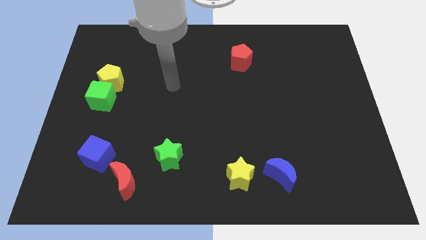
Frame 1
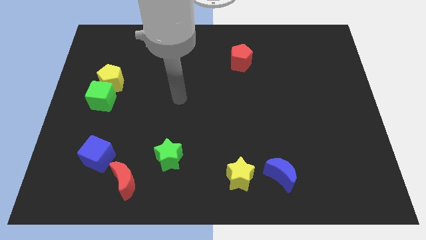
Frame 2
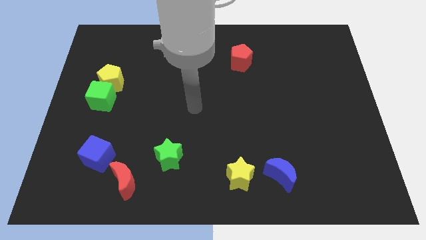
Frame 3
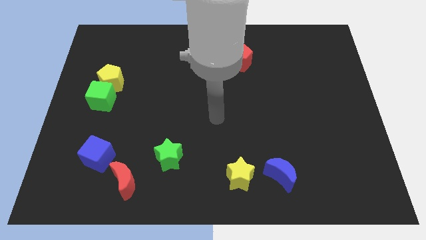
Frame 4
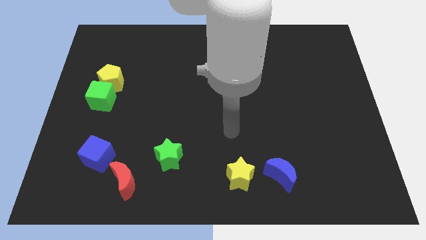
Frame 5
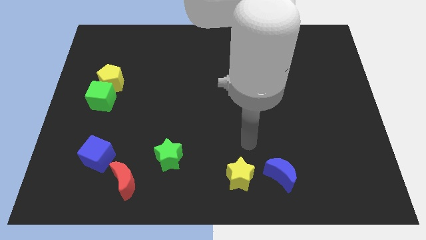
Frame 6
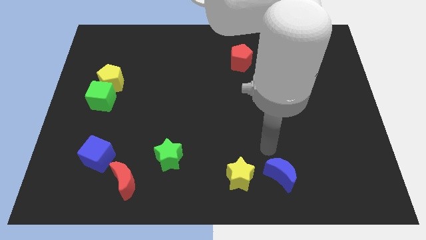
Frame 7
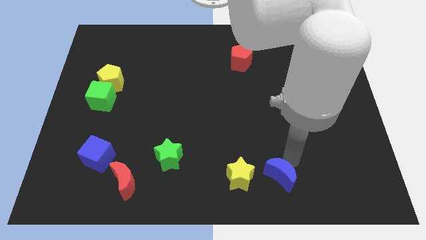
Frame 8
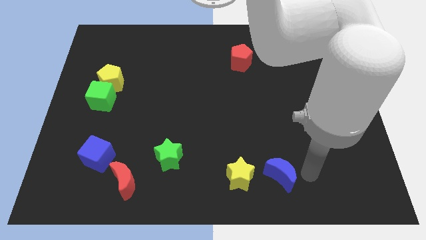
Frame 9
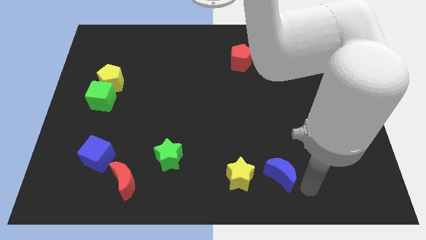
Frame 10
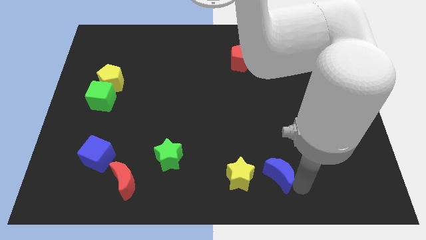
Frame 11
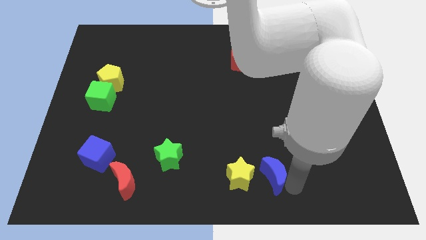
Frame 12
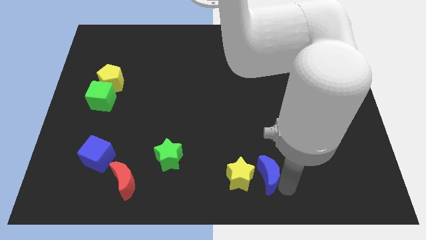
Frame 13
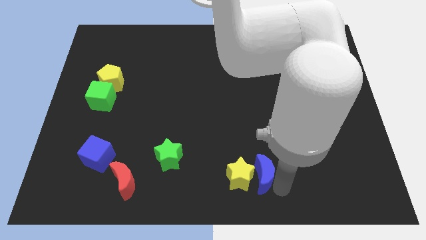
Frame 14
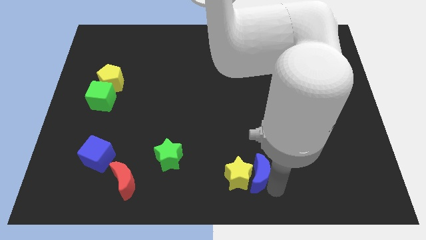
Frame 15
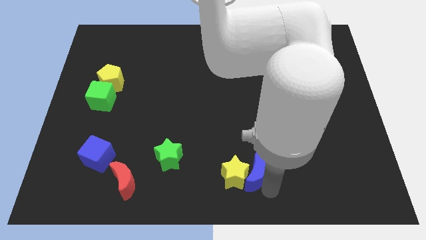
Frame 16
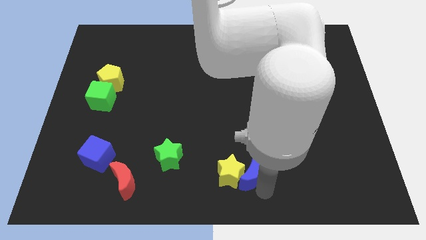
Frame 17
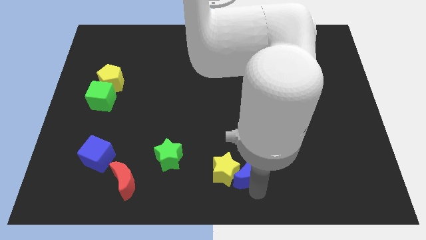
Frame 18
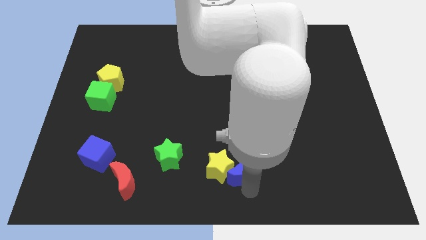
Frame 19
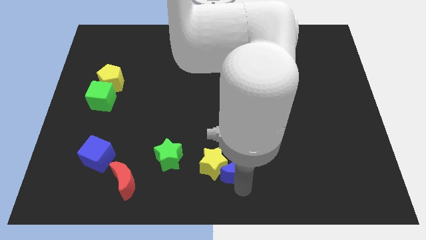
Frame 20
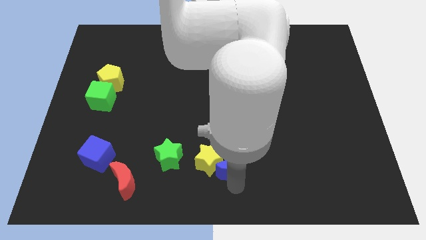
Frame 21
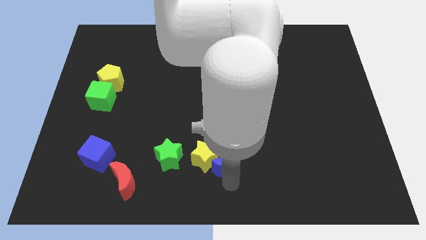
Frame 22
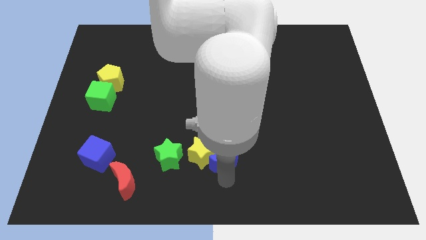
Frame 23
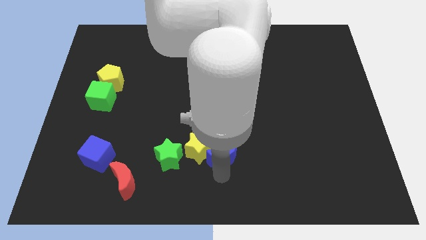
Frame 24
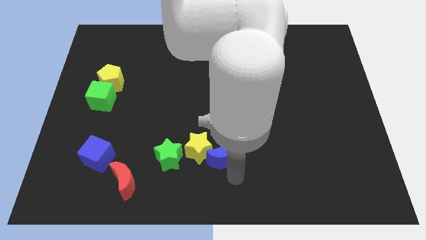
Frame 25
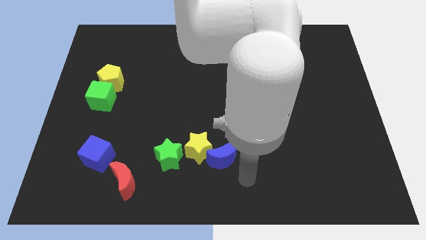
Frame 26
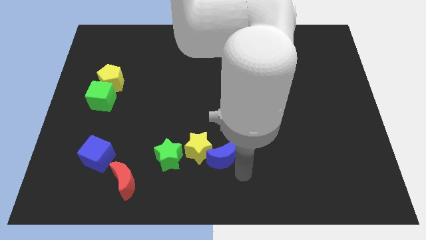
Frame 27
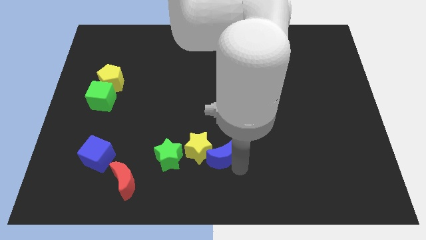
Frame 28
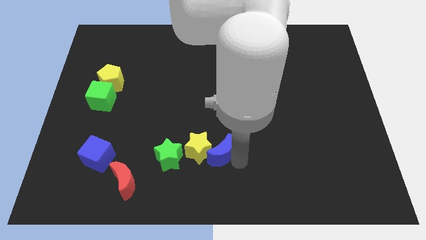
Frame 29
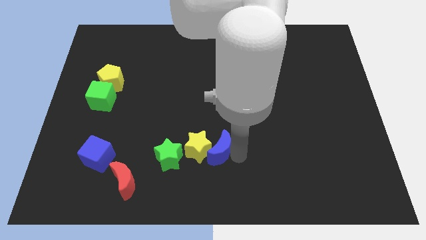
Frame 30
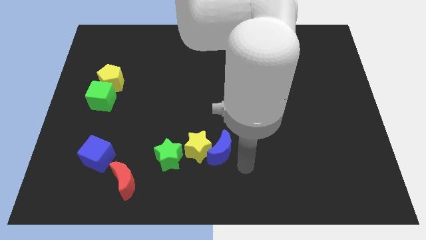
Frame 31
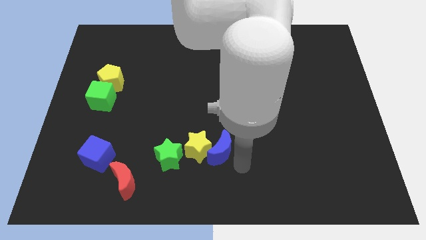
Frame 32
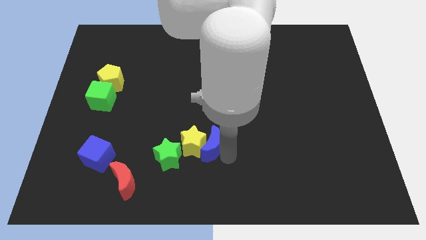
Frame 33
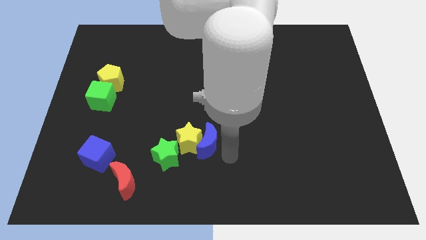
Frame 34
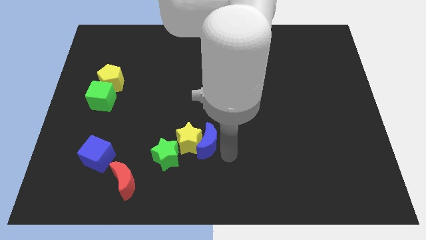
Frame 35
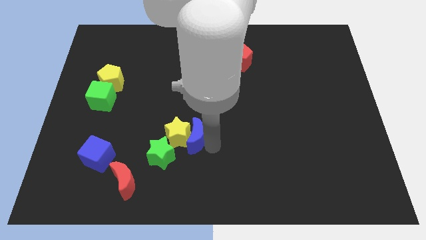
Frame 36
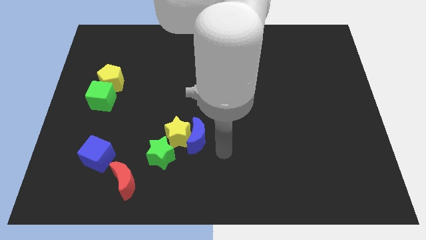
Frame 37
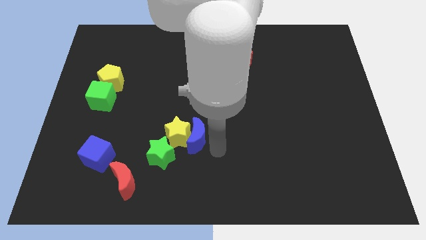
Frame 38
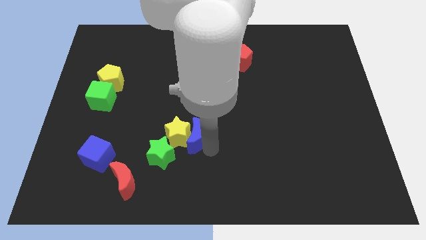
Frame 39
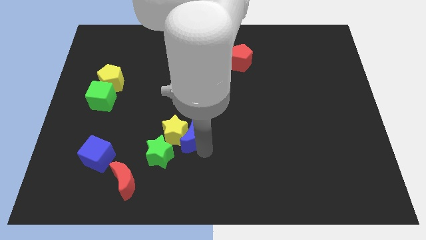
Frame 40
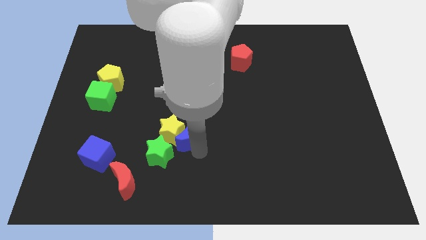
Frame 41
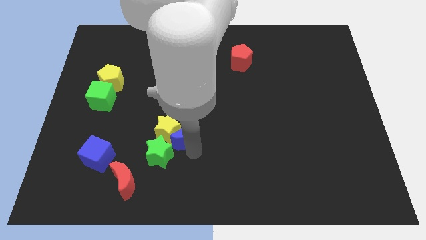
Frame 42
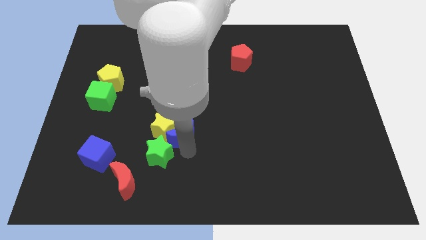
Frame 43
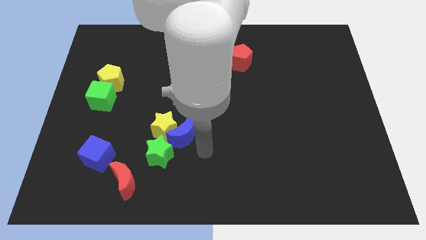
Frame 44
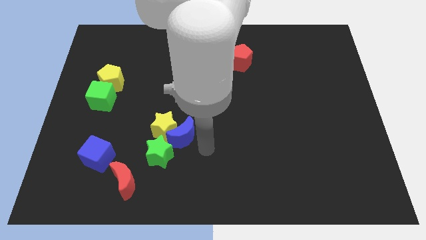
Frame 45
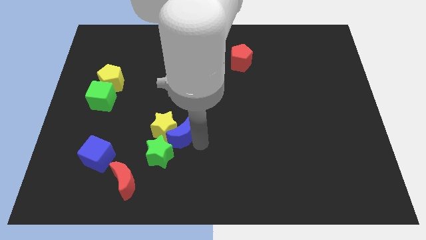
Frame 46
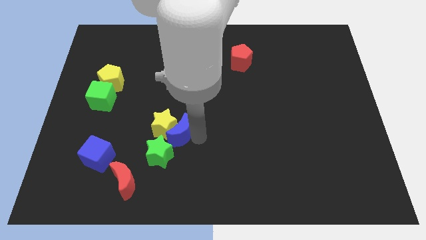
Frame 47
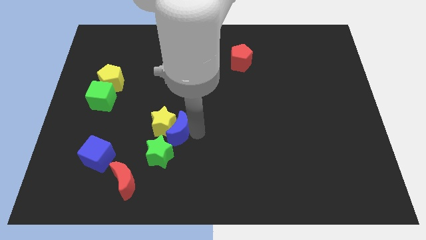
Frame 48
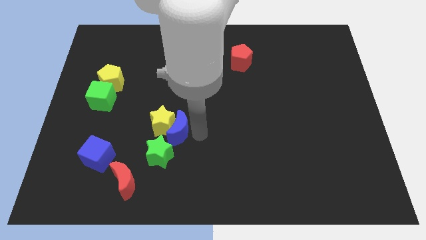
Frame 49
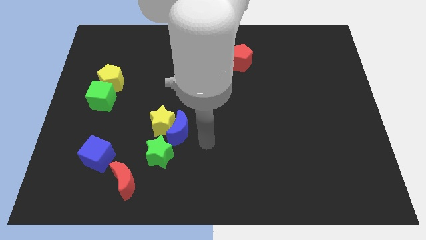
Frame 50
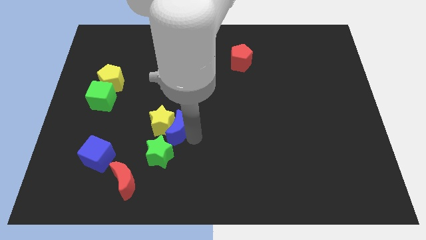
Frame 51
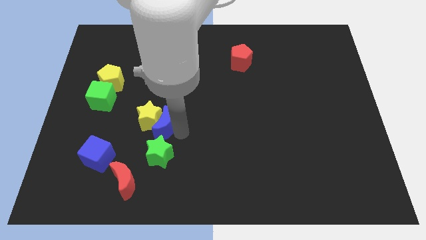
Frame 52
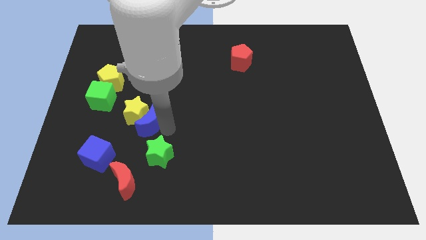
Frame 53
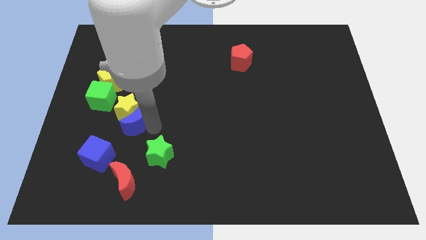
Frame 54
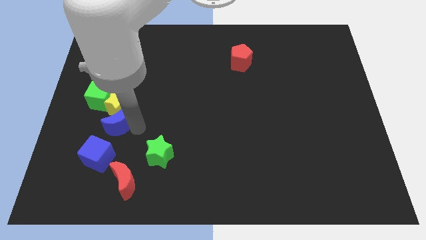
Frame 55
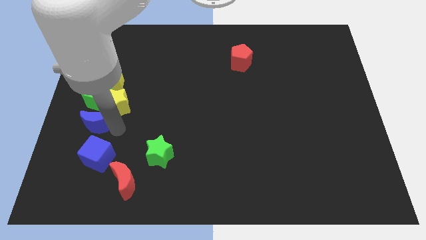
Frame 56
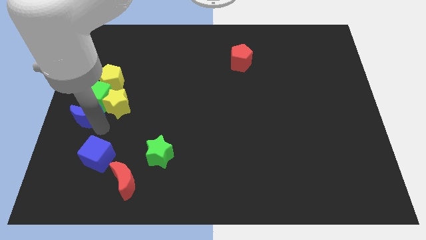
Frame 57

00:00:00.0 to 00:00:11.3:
move the blue moon towards the green cube

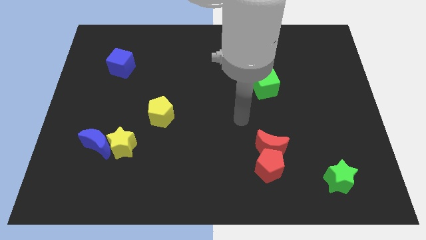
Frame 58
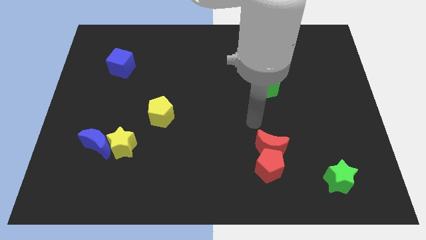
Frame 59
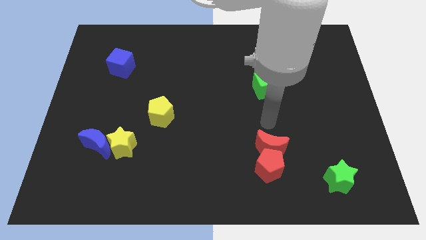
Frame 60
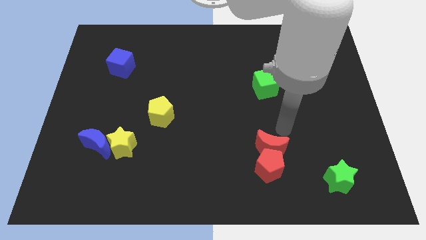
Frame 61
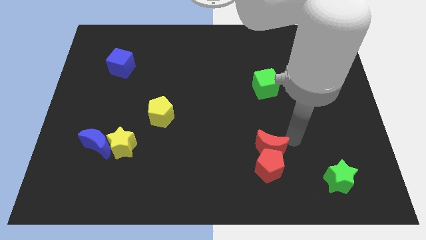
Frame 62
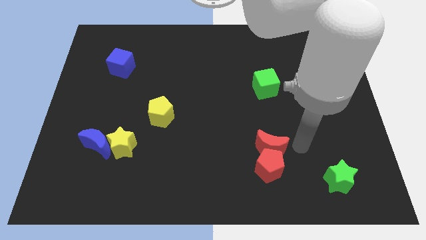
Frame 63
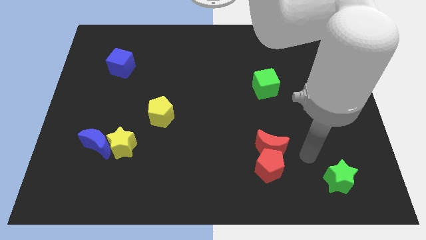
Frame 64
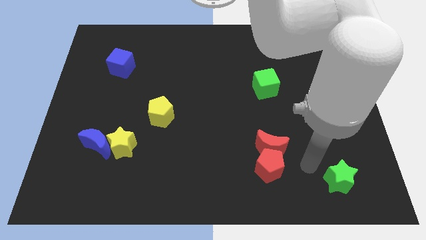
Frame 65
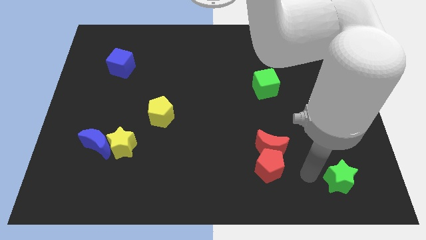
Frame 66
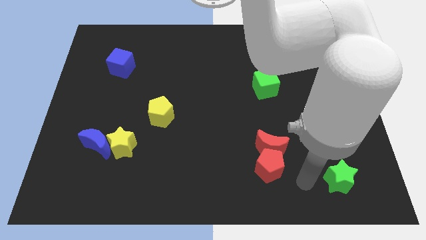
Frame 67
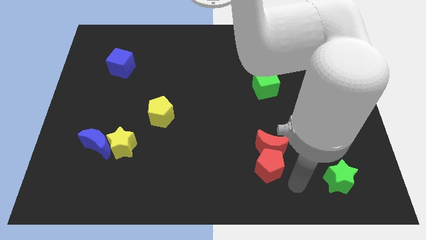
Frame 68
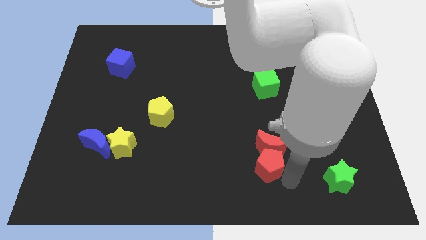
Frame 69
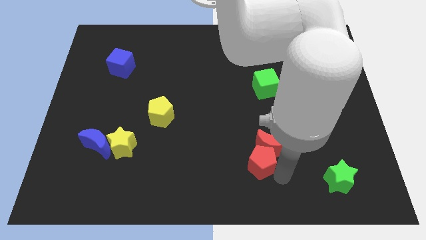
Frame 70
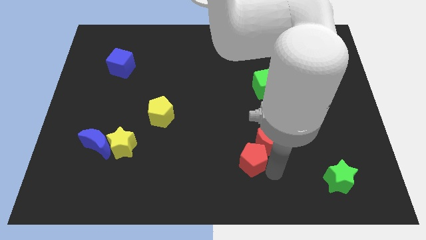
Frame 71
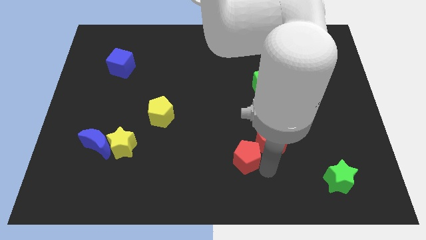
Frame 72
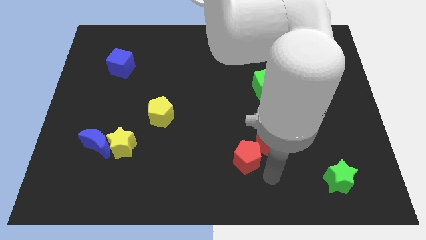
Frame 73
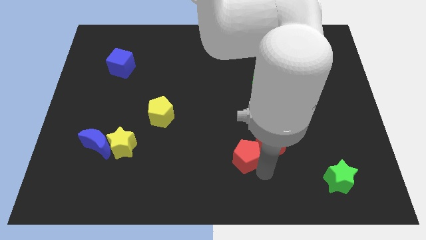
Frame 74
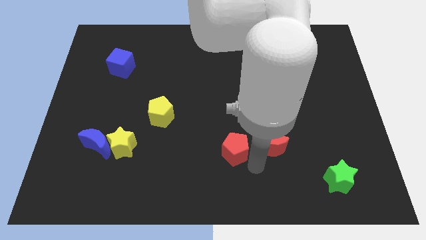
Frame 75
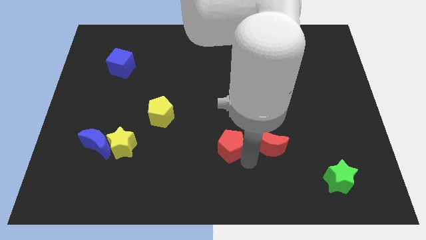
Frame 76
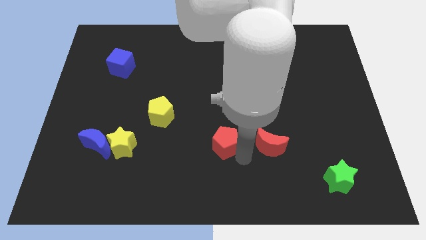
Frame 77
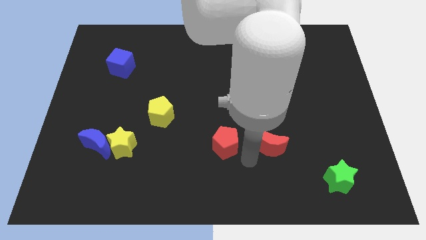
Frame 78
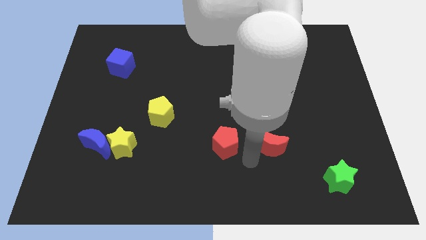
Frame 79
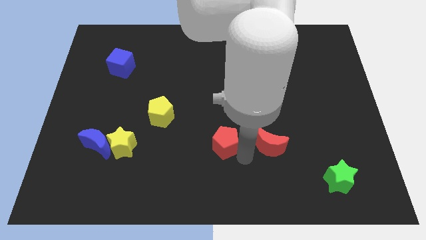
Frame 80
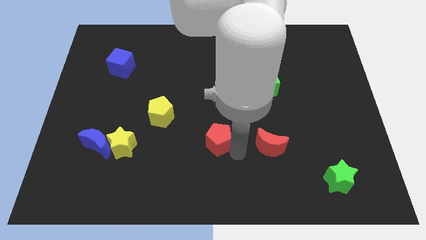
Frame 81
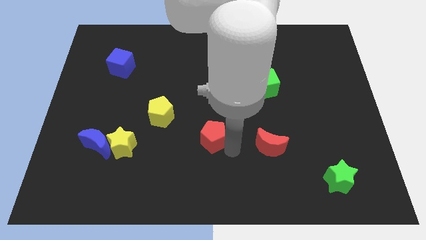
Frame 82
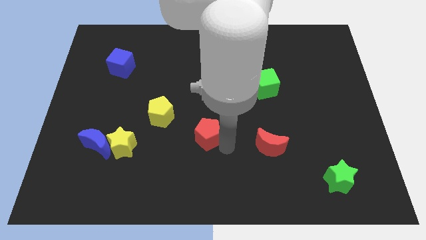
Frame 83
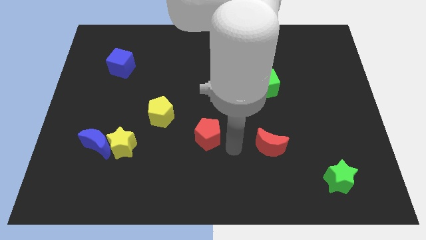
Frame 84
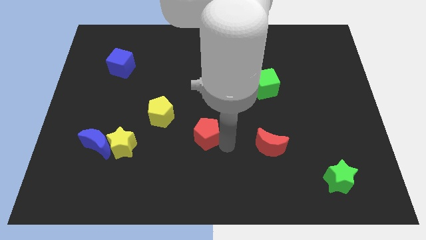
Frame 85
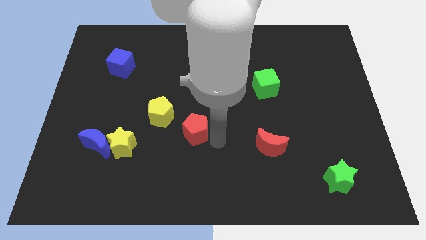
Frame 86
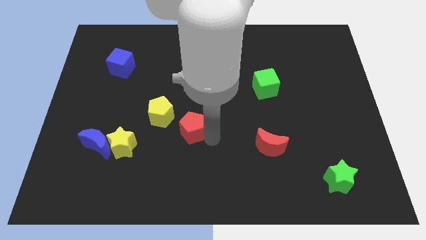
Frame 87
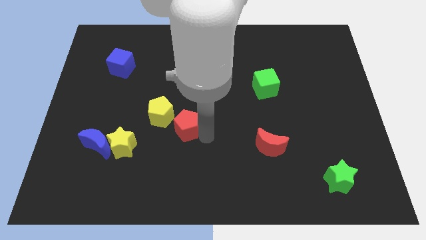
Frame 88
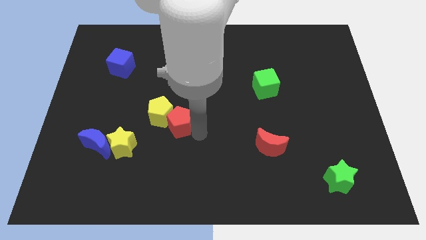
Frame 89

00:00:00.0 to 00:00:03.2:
move the red pentagon towards the yellow pentagon
